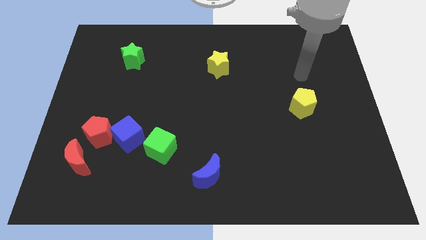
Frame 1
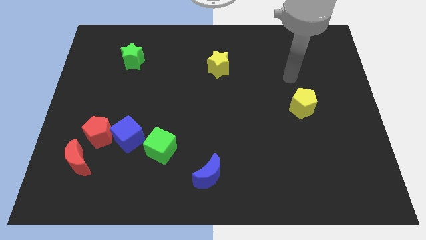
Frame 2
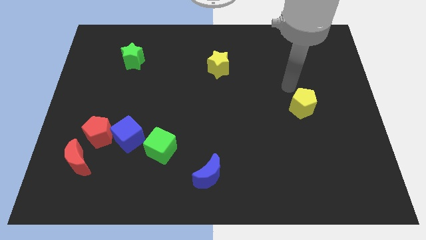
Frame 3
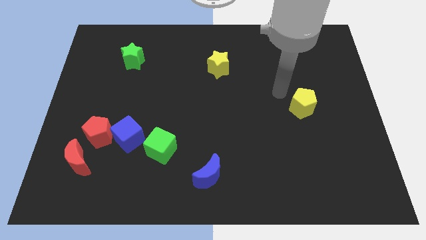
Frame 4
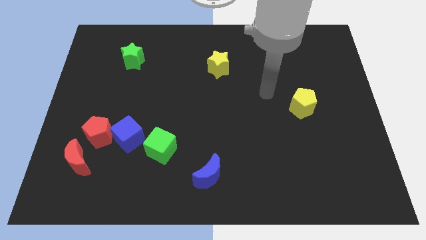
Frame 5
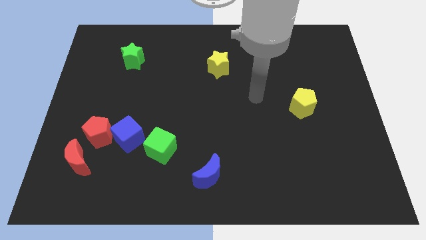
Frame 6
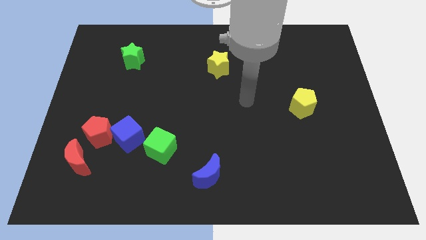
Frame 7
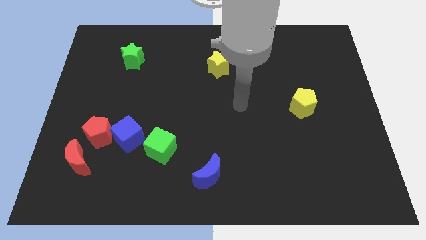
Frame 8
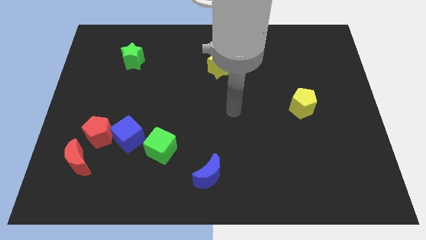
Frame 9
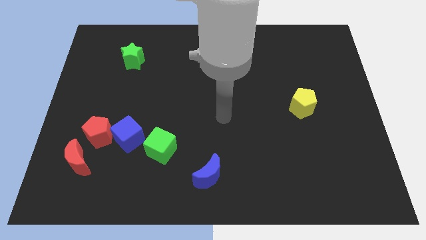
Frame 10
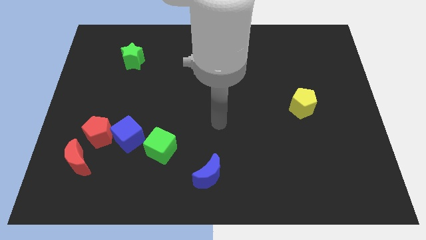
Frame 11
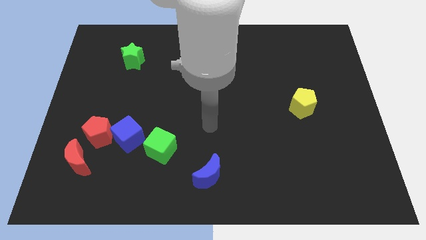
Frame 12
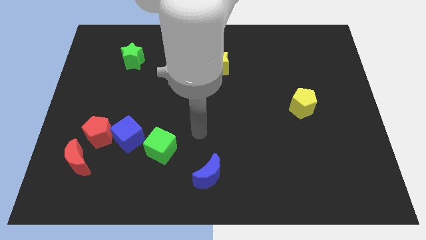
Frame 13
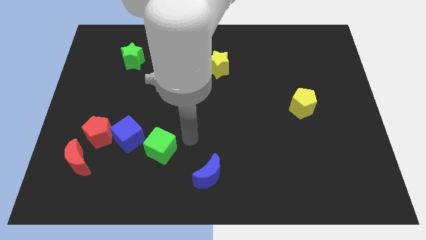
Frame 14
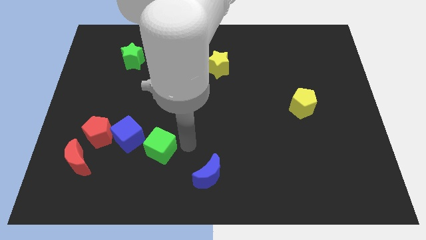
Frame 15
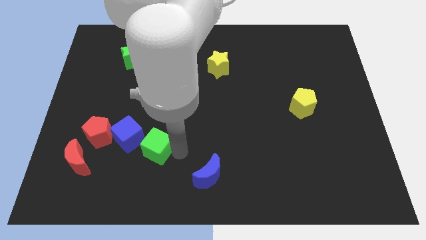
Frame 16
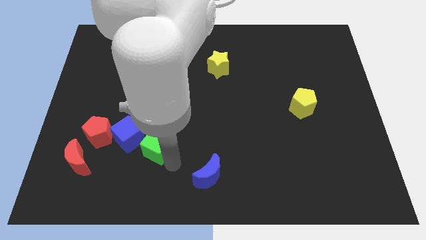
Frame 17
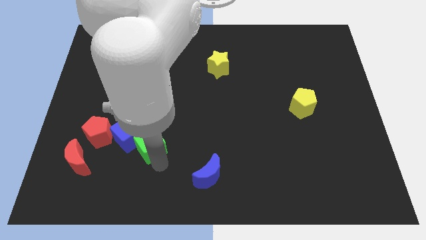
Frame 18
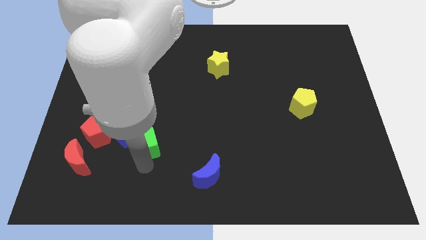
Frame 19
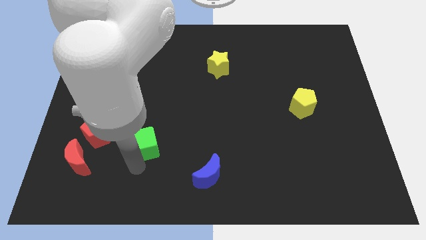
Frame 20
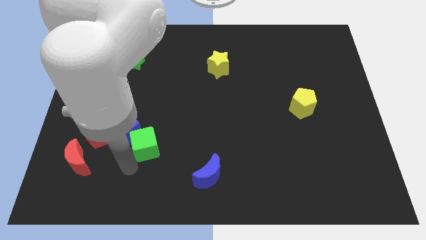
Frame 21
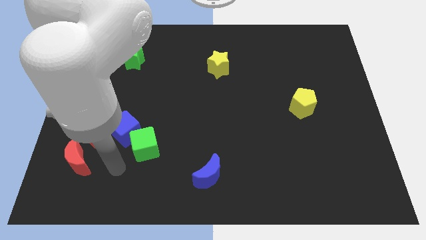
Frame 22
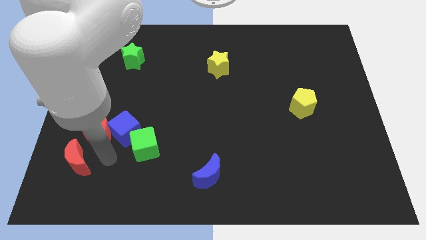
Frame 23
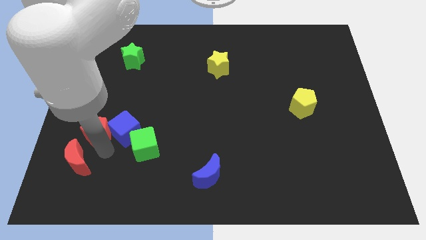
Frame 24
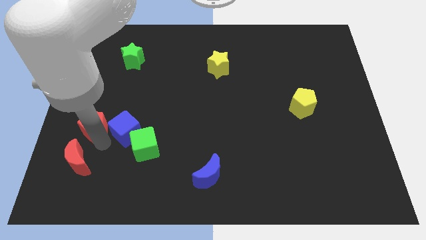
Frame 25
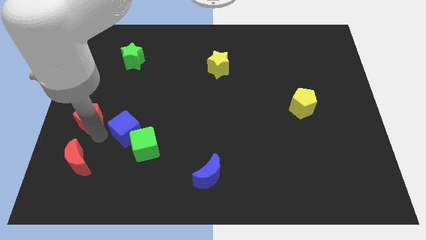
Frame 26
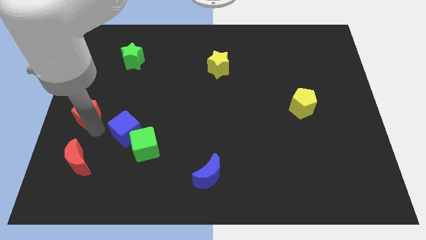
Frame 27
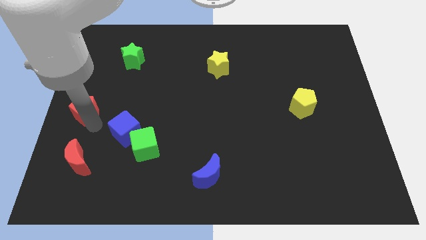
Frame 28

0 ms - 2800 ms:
pull the red pentagon apart from the blue cube and red moon

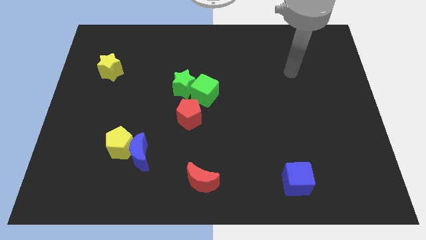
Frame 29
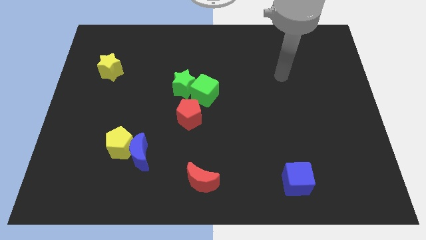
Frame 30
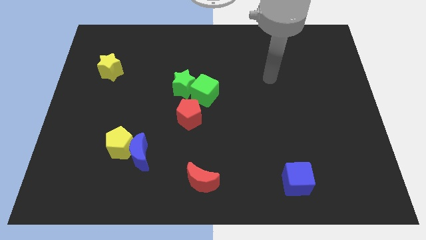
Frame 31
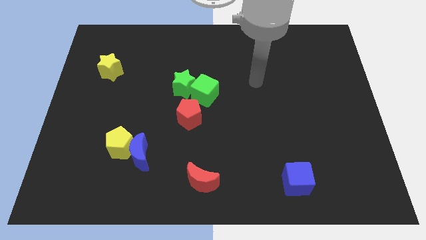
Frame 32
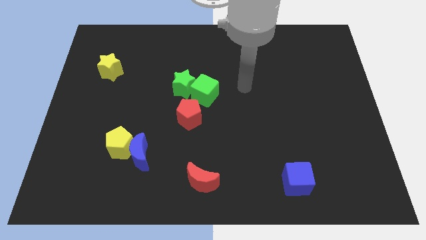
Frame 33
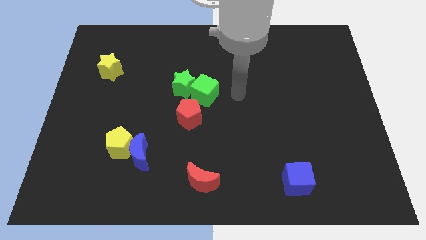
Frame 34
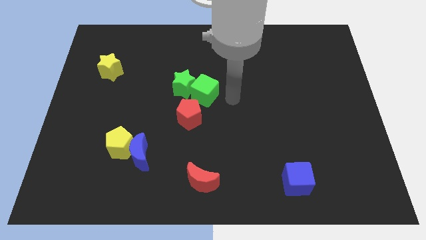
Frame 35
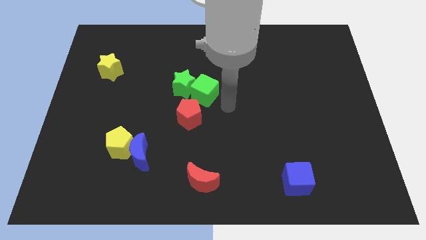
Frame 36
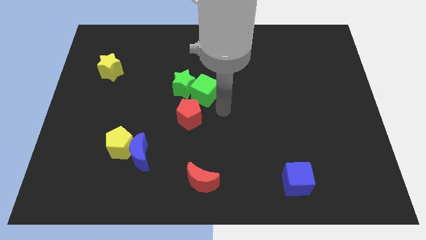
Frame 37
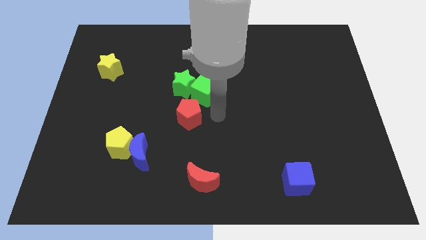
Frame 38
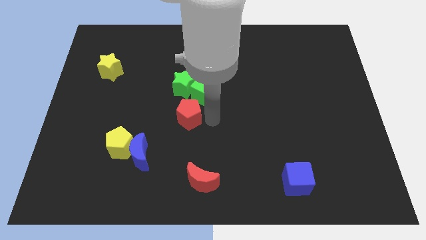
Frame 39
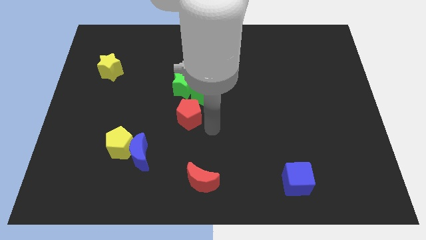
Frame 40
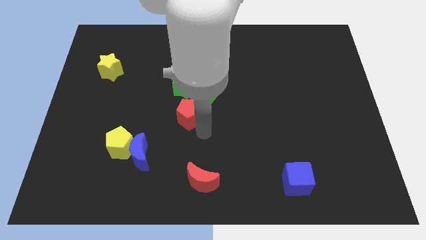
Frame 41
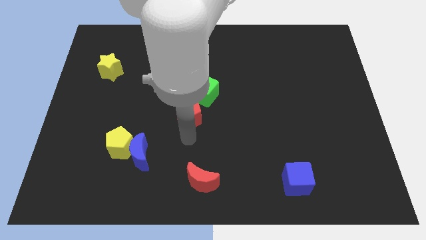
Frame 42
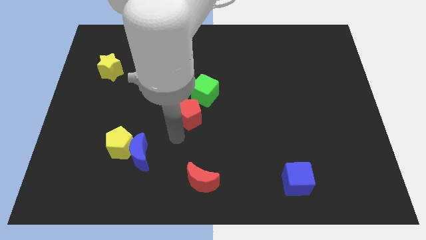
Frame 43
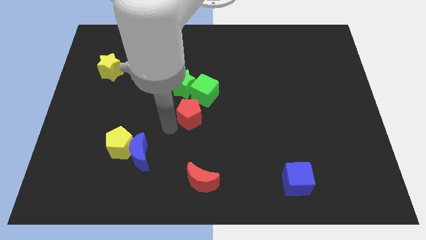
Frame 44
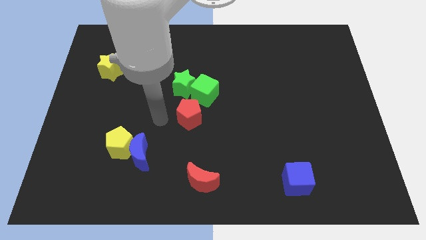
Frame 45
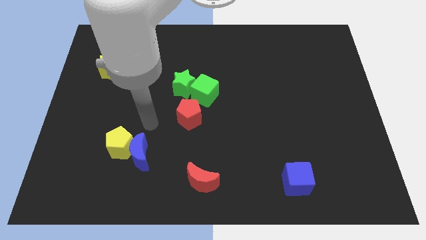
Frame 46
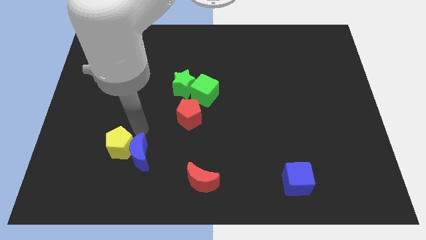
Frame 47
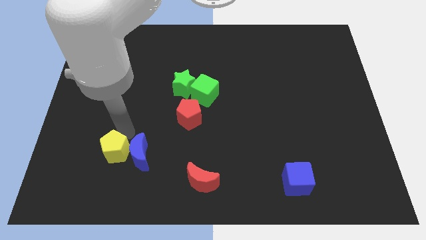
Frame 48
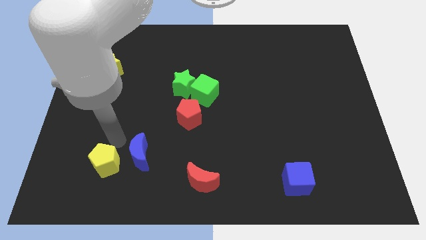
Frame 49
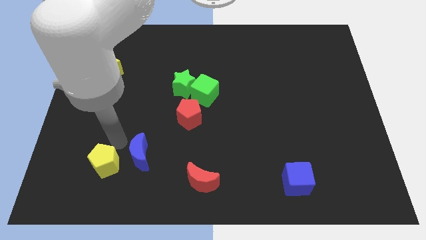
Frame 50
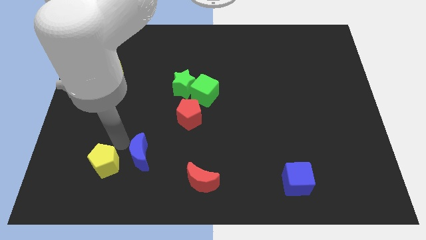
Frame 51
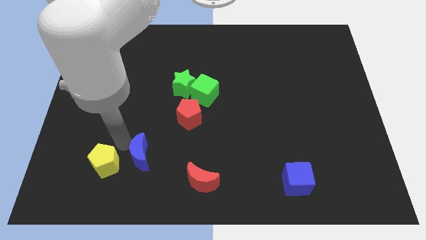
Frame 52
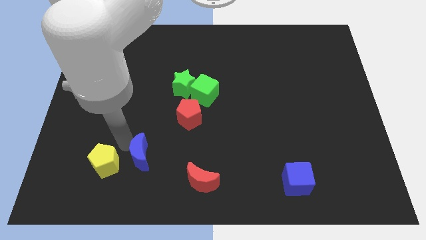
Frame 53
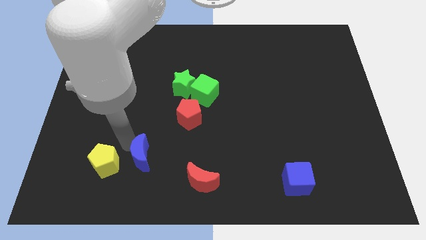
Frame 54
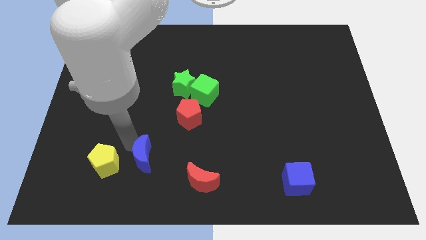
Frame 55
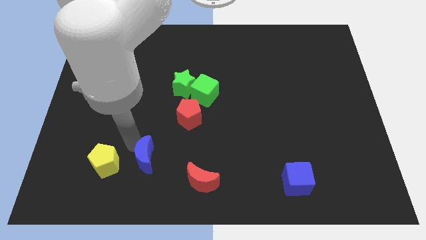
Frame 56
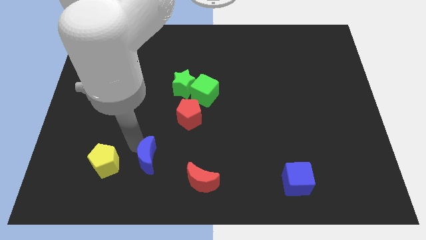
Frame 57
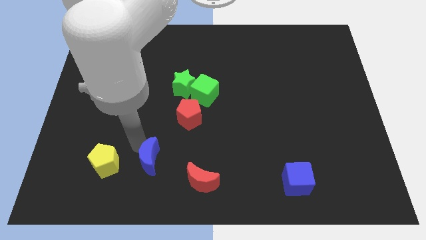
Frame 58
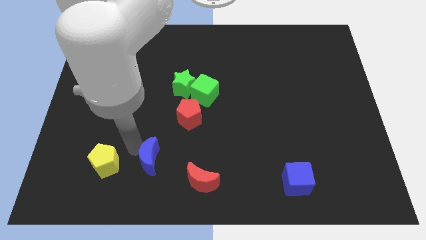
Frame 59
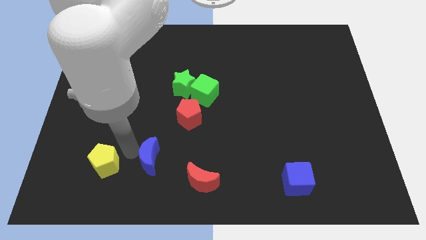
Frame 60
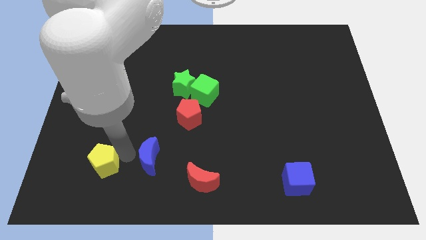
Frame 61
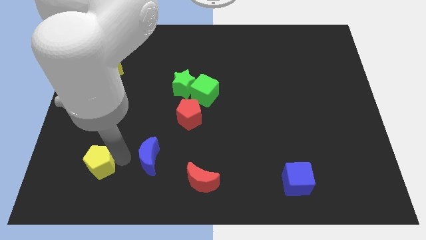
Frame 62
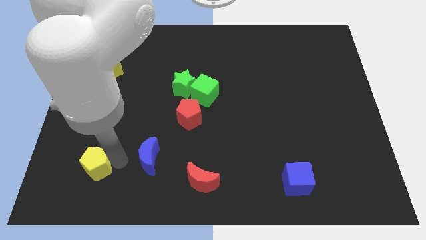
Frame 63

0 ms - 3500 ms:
separate the blue moon from the yellow pentagon

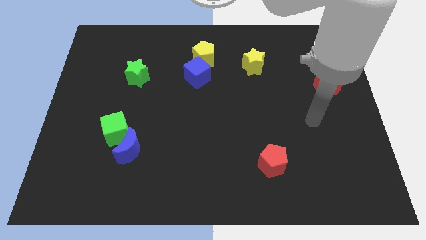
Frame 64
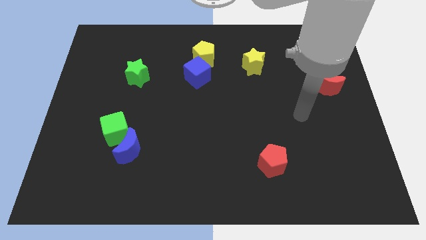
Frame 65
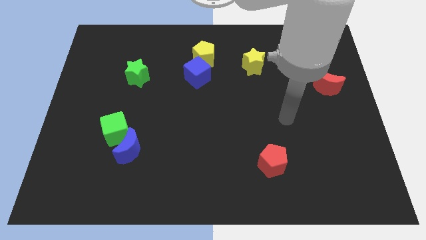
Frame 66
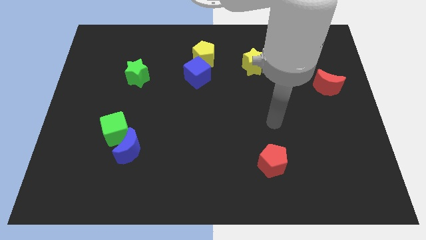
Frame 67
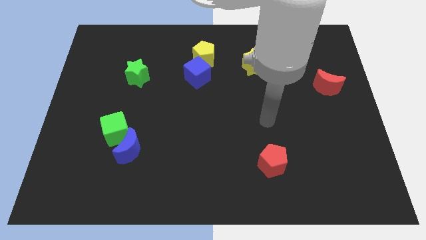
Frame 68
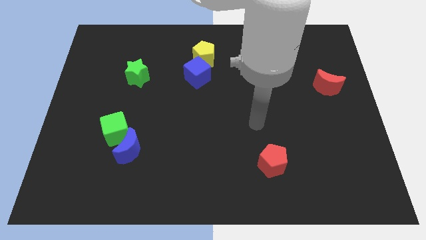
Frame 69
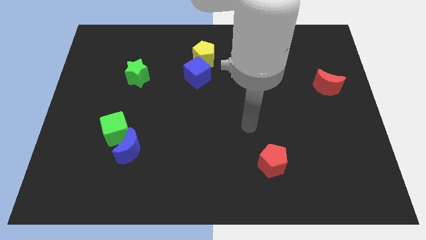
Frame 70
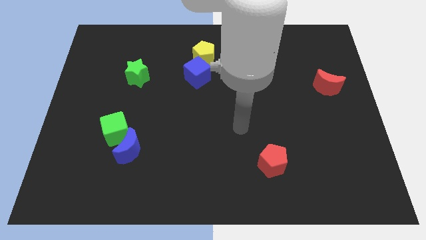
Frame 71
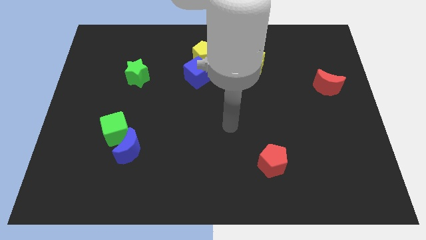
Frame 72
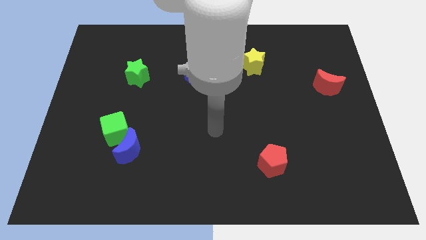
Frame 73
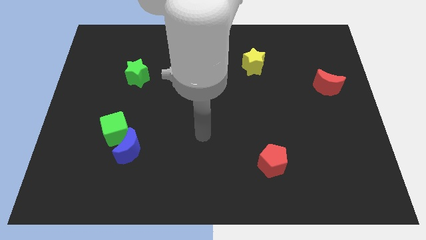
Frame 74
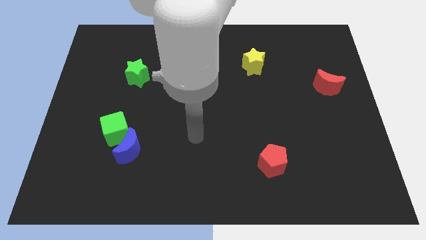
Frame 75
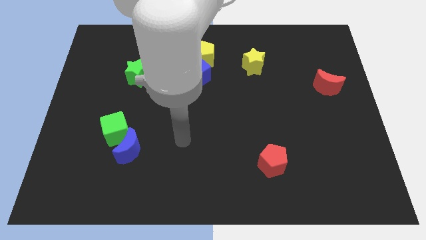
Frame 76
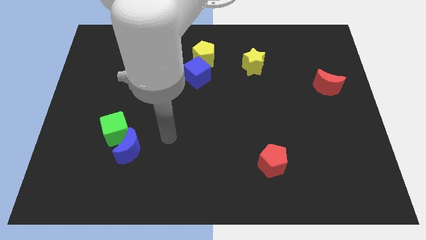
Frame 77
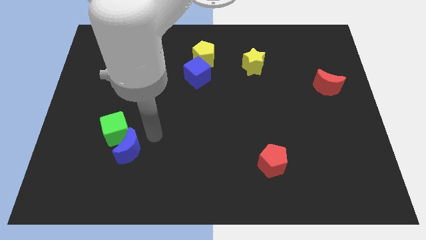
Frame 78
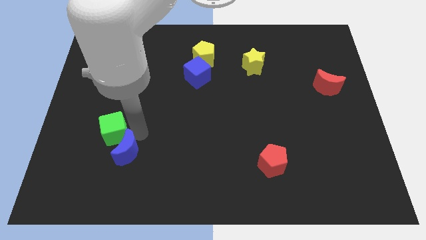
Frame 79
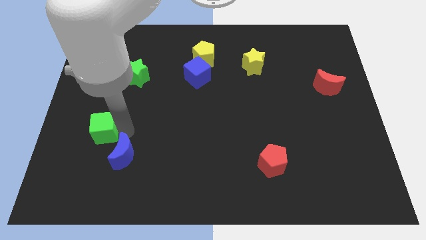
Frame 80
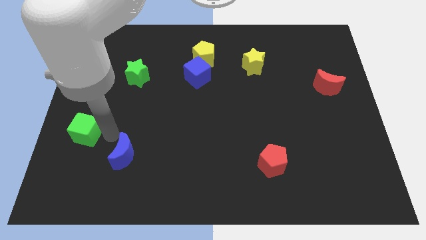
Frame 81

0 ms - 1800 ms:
pull the blue moon apart from the green cube

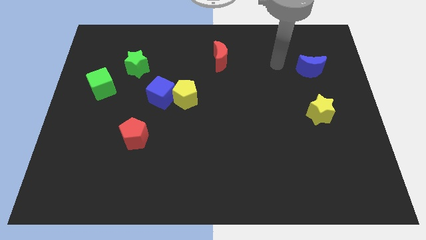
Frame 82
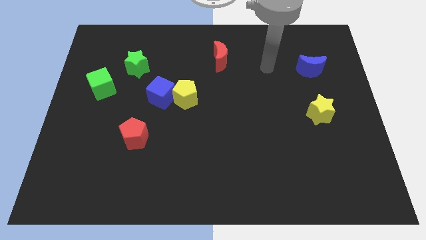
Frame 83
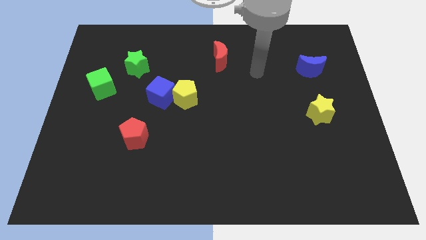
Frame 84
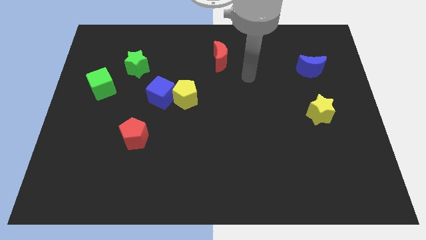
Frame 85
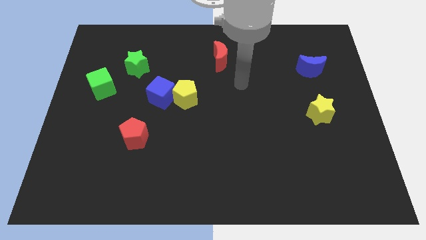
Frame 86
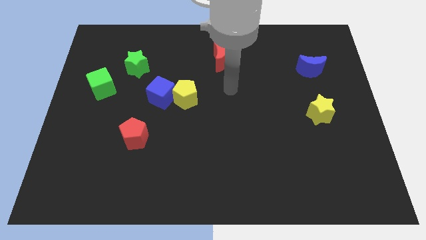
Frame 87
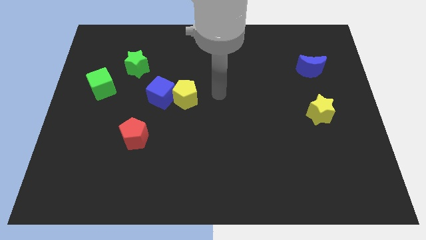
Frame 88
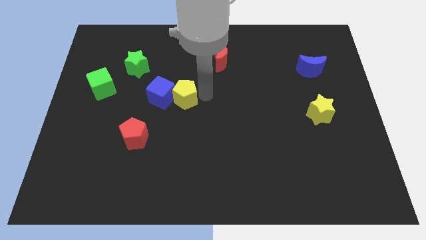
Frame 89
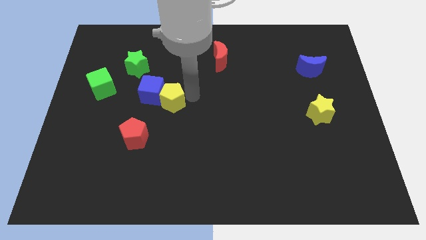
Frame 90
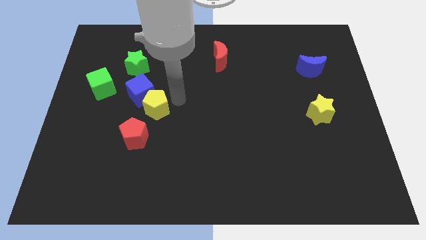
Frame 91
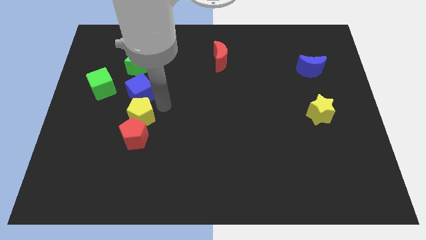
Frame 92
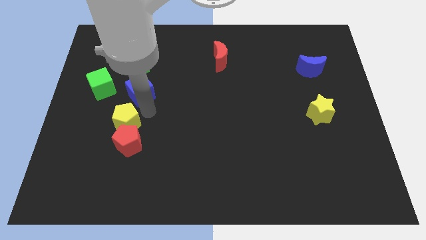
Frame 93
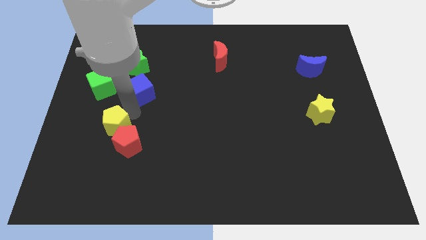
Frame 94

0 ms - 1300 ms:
separate the blue cube from the yellow pentagon
